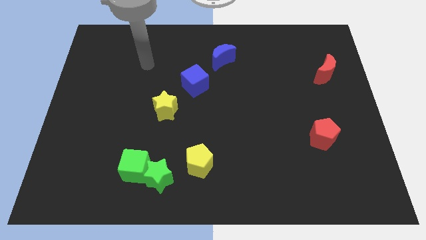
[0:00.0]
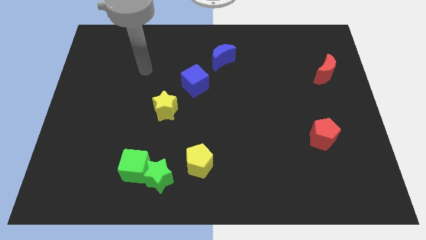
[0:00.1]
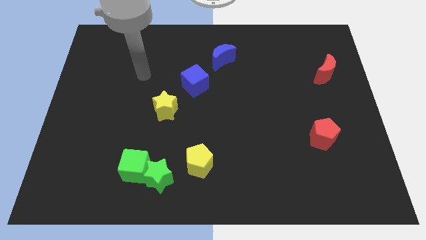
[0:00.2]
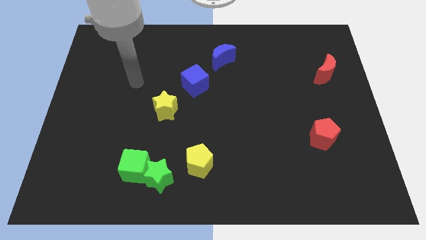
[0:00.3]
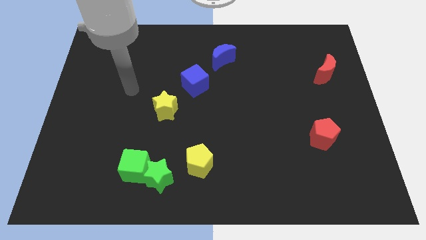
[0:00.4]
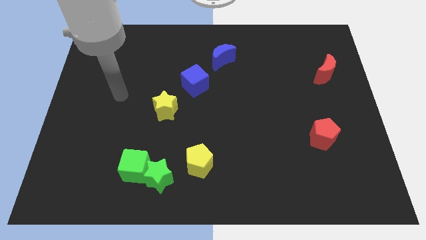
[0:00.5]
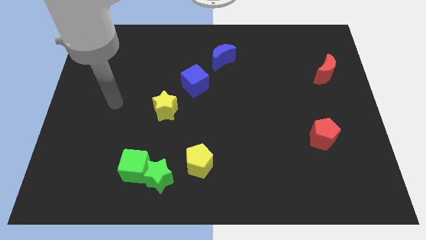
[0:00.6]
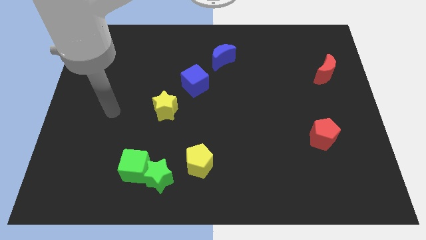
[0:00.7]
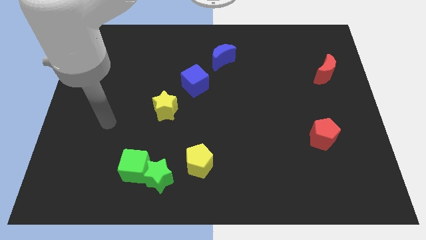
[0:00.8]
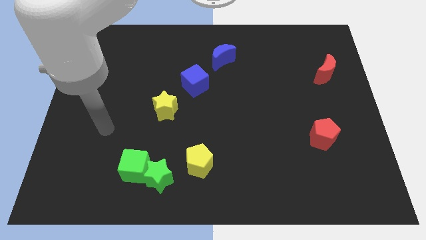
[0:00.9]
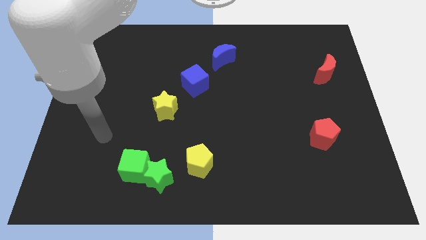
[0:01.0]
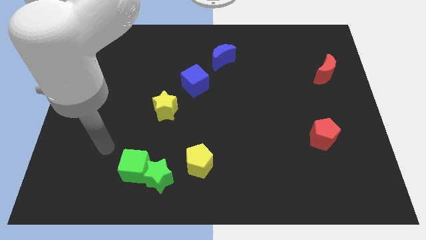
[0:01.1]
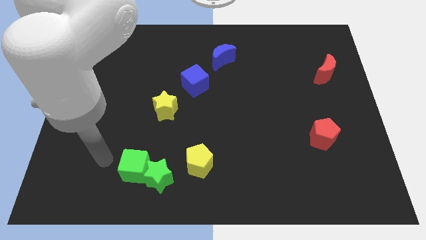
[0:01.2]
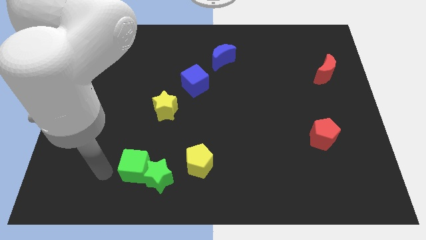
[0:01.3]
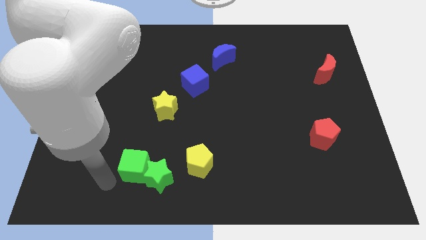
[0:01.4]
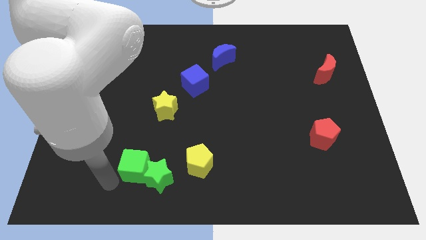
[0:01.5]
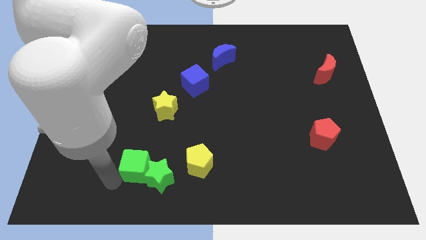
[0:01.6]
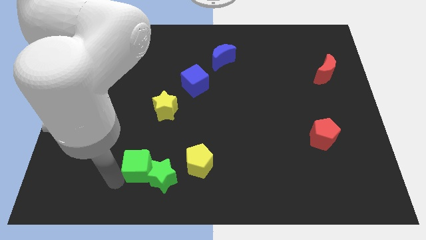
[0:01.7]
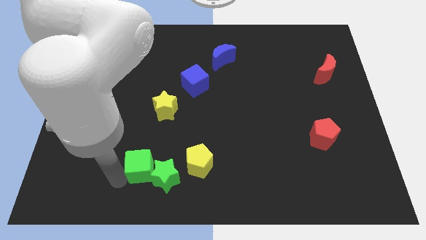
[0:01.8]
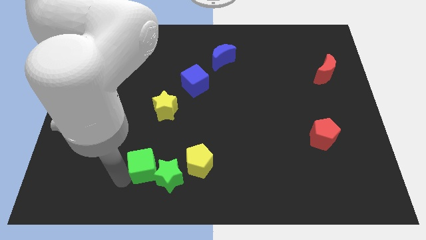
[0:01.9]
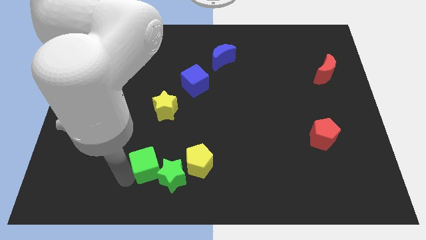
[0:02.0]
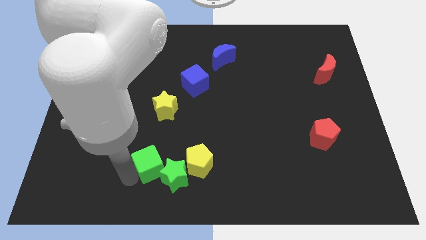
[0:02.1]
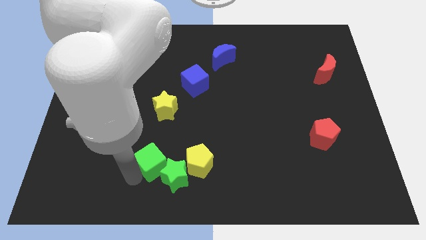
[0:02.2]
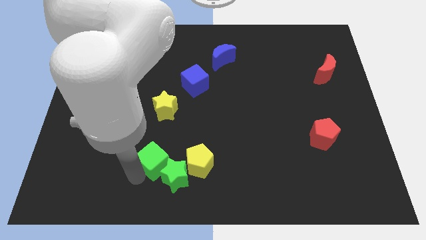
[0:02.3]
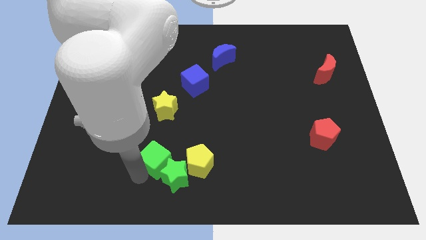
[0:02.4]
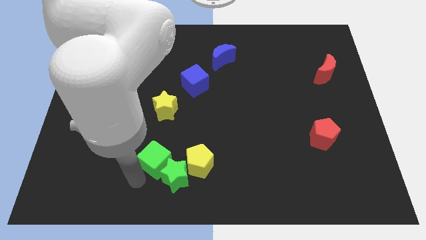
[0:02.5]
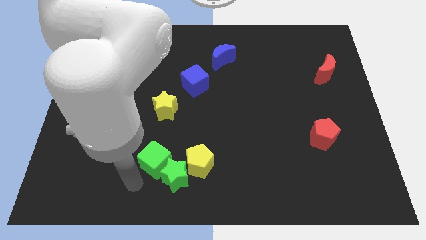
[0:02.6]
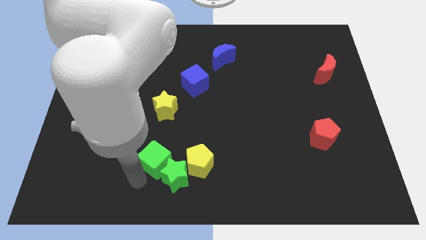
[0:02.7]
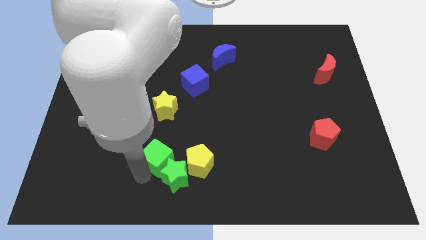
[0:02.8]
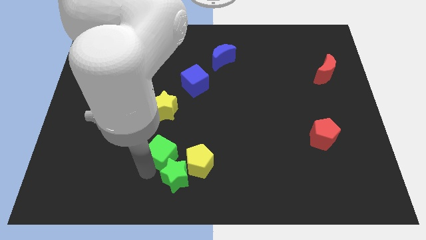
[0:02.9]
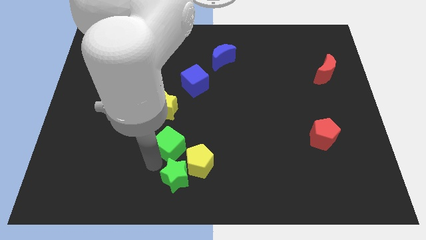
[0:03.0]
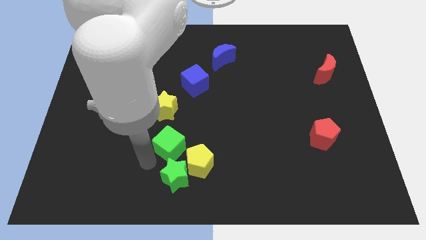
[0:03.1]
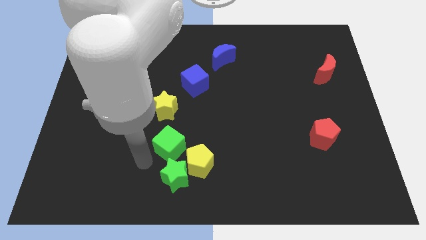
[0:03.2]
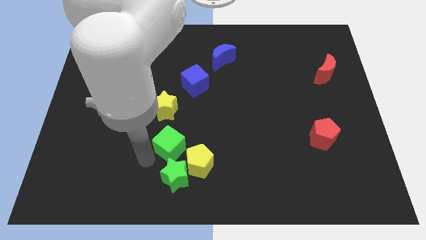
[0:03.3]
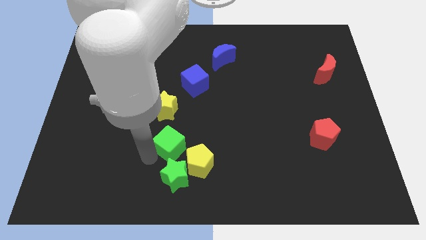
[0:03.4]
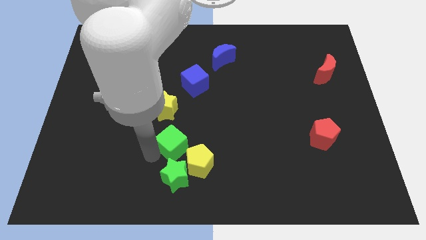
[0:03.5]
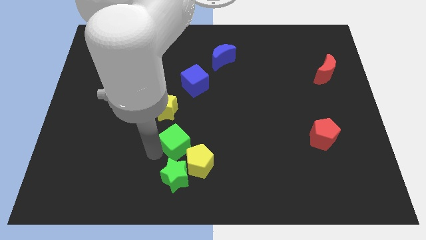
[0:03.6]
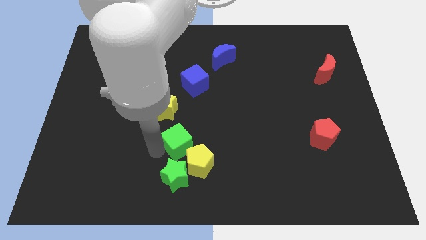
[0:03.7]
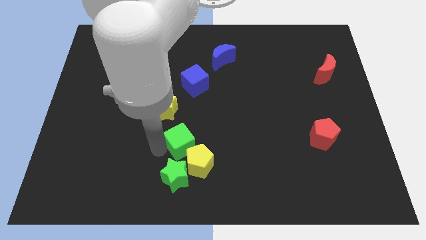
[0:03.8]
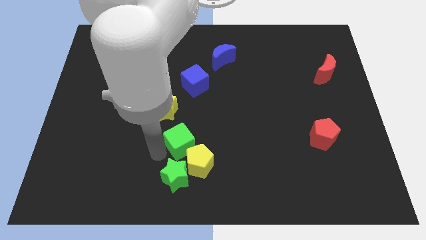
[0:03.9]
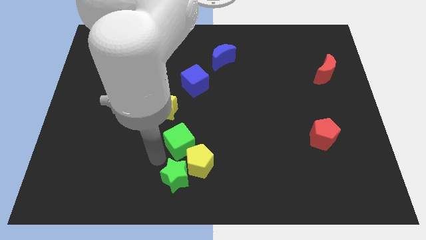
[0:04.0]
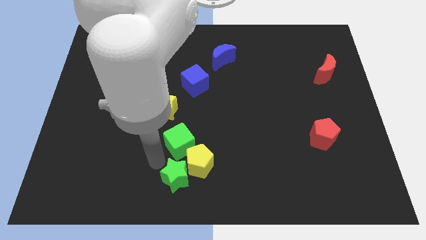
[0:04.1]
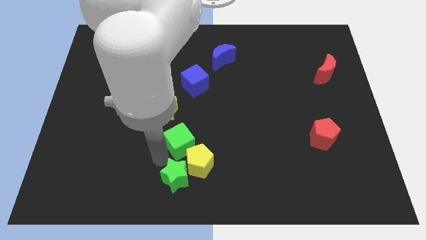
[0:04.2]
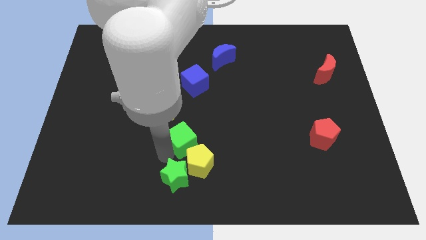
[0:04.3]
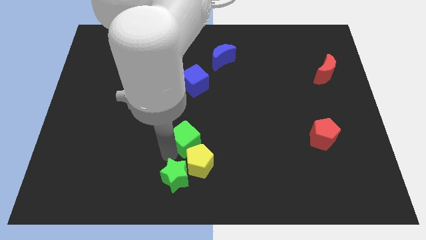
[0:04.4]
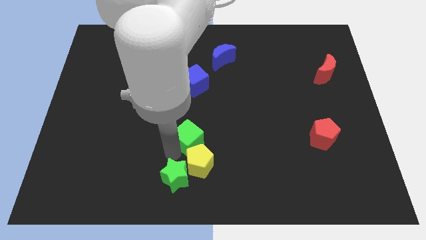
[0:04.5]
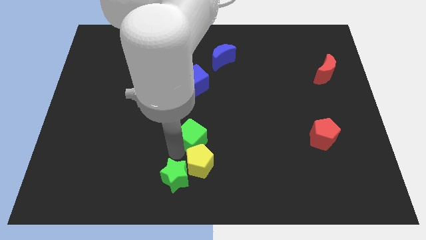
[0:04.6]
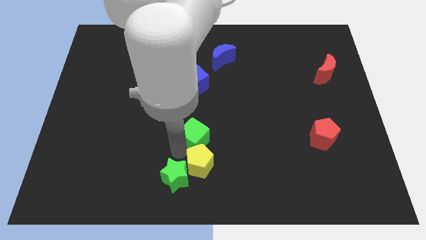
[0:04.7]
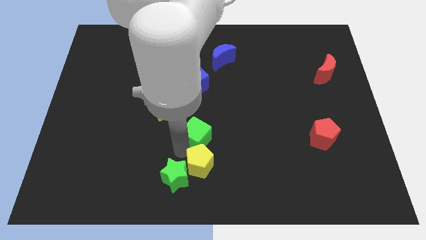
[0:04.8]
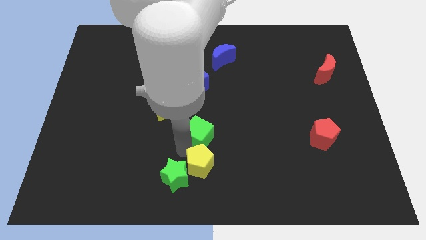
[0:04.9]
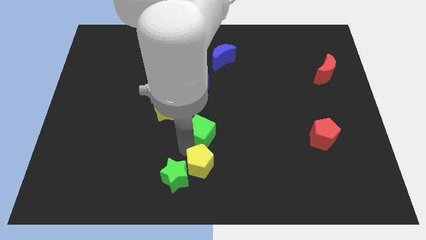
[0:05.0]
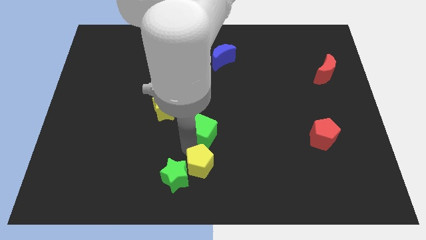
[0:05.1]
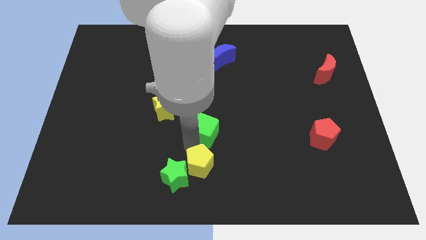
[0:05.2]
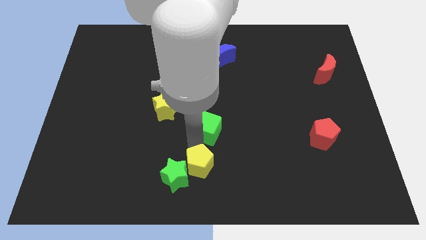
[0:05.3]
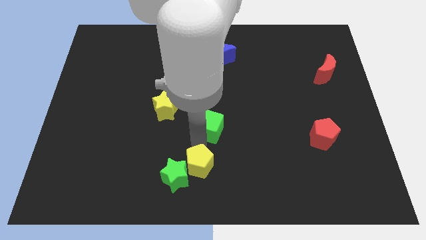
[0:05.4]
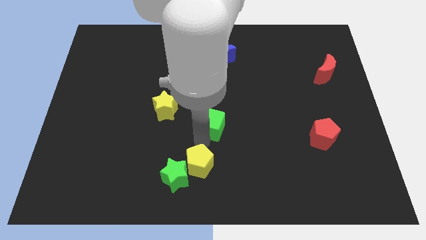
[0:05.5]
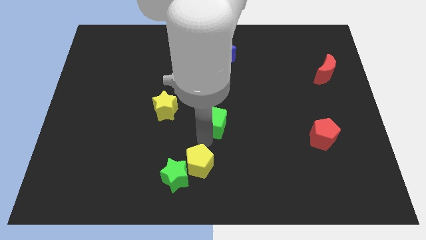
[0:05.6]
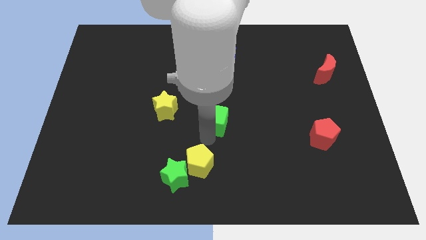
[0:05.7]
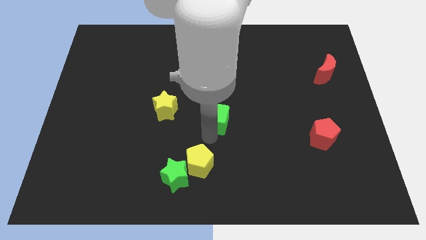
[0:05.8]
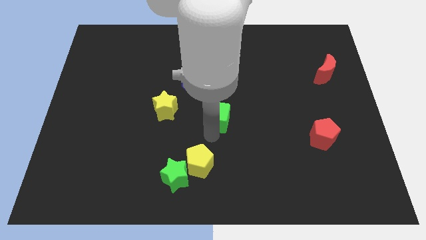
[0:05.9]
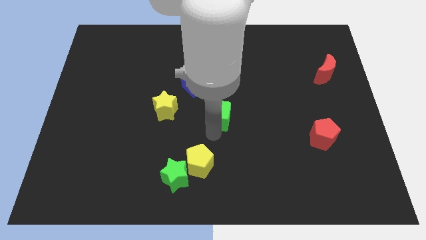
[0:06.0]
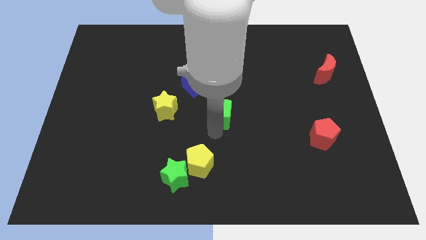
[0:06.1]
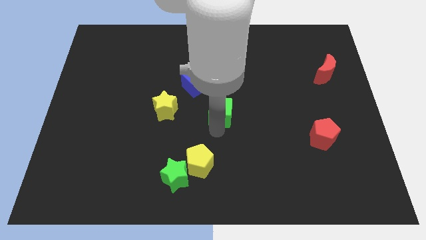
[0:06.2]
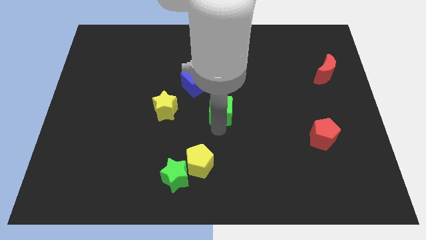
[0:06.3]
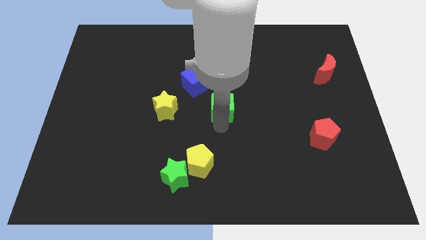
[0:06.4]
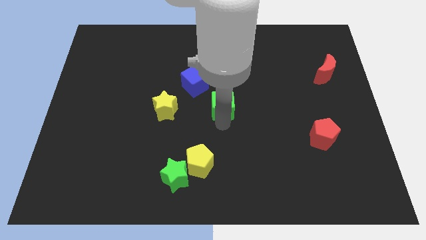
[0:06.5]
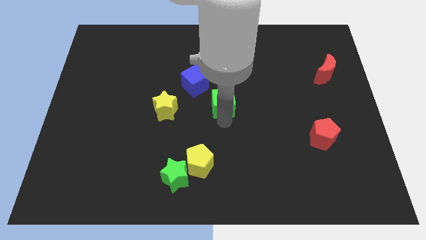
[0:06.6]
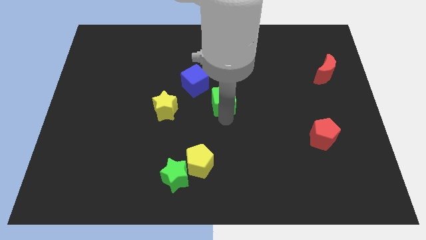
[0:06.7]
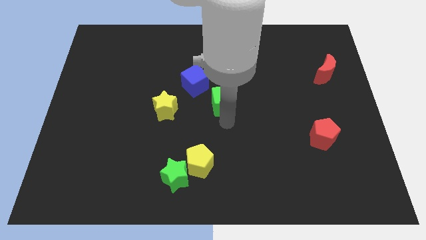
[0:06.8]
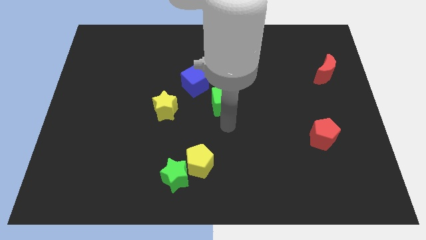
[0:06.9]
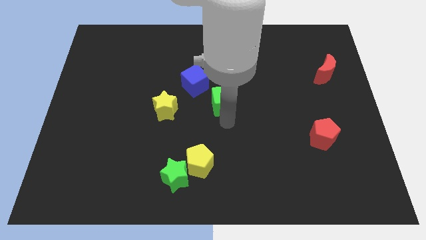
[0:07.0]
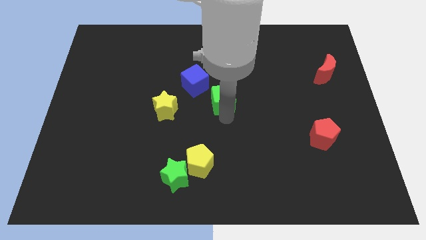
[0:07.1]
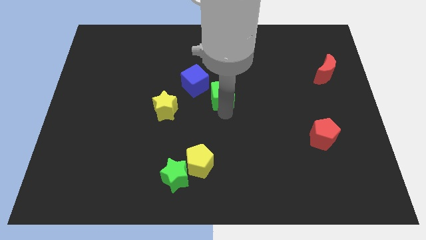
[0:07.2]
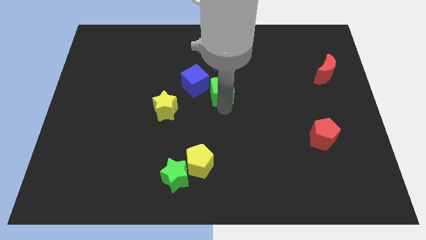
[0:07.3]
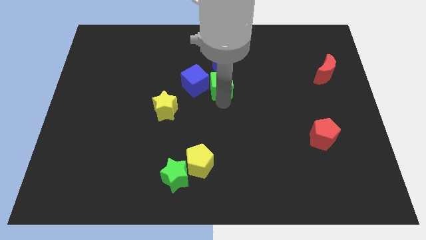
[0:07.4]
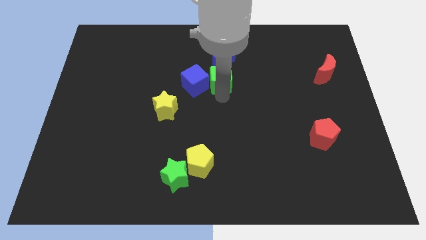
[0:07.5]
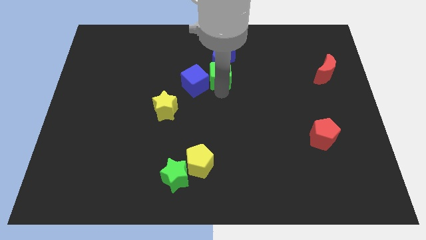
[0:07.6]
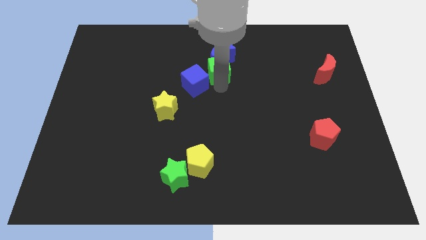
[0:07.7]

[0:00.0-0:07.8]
push the green cube next to the blue moon

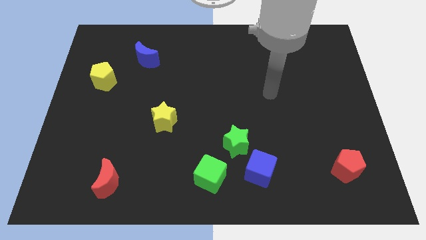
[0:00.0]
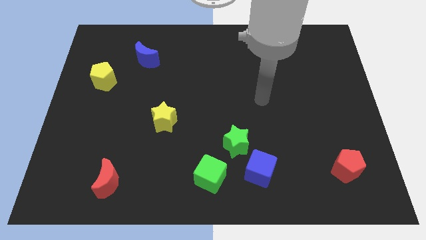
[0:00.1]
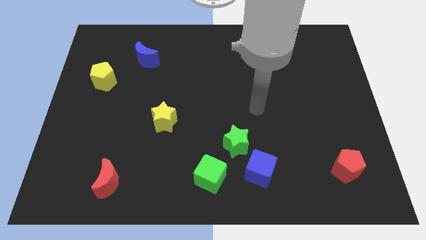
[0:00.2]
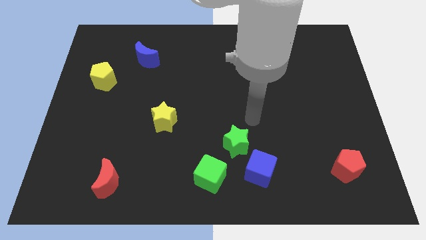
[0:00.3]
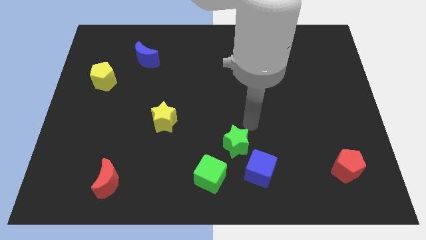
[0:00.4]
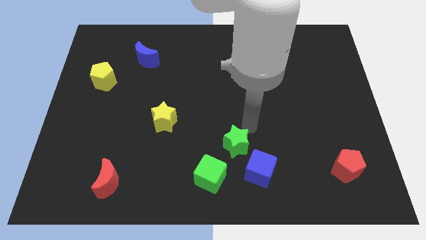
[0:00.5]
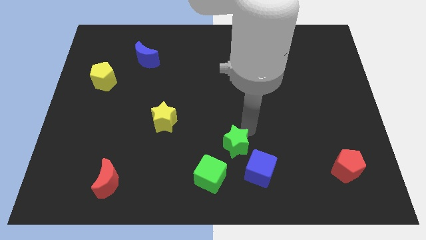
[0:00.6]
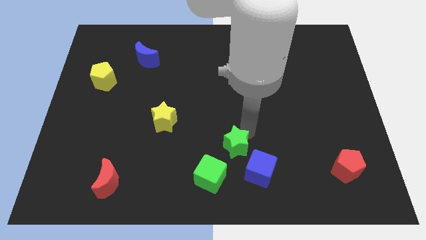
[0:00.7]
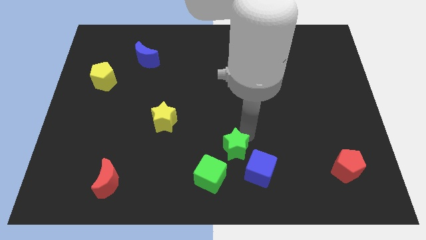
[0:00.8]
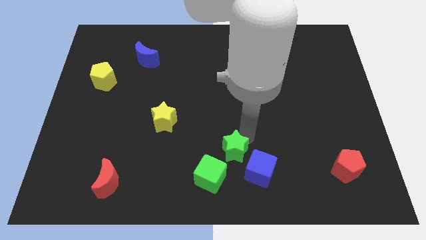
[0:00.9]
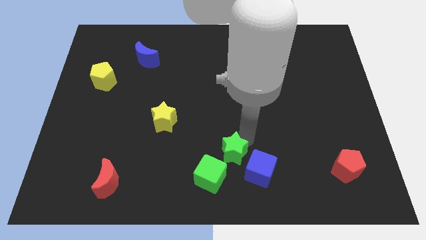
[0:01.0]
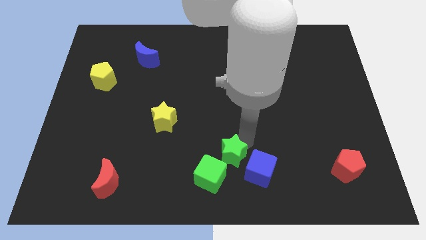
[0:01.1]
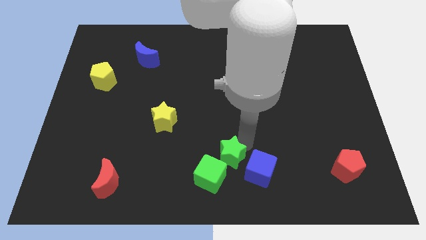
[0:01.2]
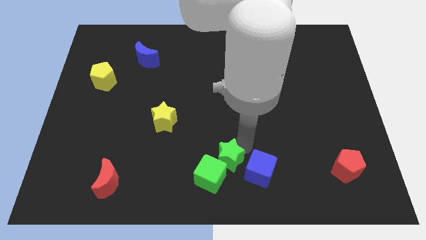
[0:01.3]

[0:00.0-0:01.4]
push the green star towards the green cube
